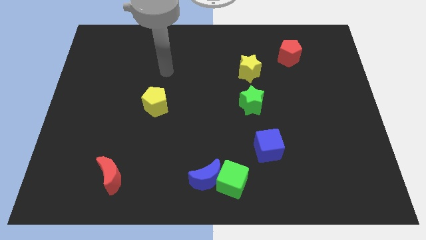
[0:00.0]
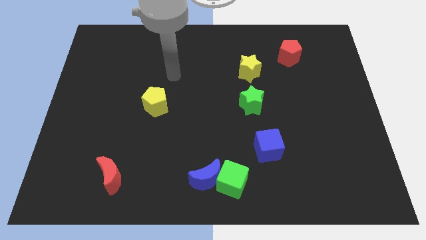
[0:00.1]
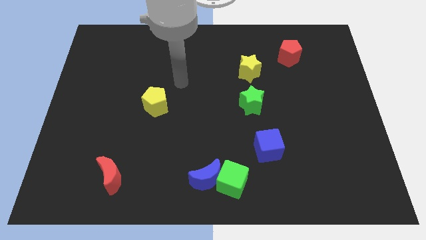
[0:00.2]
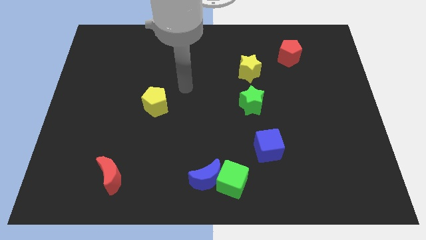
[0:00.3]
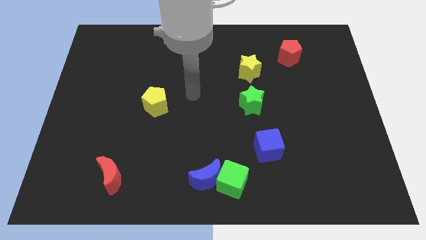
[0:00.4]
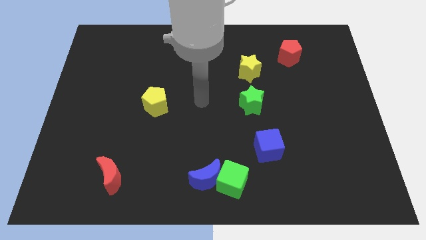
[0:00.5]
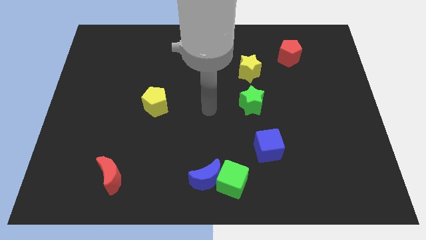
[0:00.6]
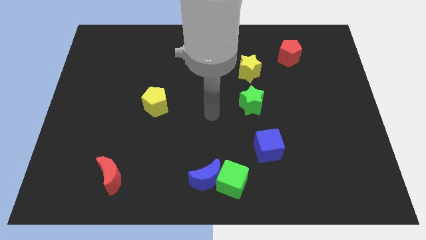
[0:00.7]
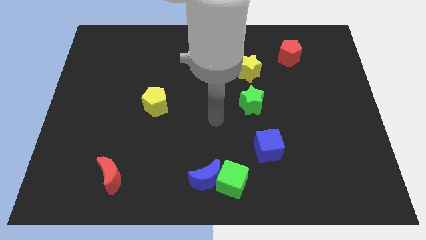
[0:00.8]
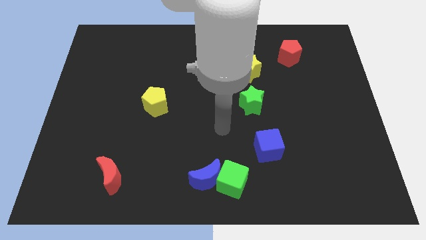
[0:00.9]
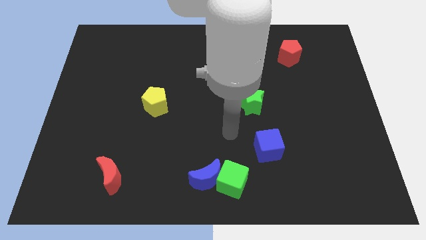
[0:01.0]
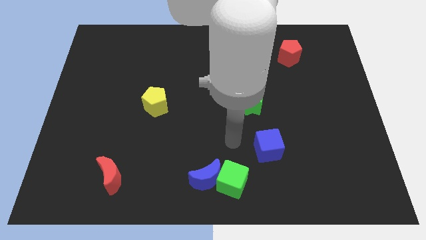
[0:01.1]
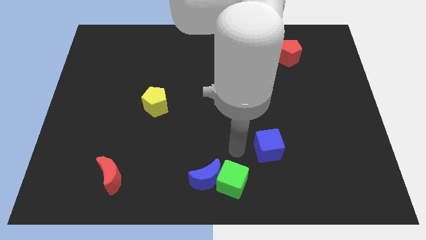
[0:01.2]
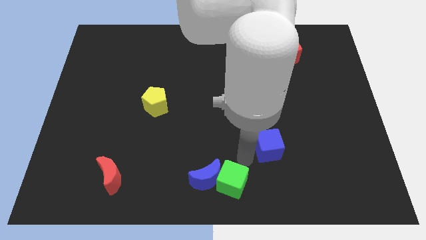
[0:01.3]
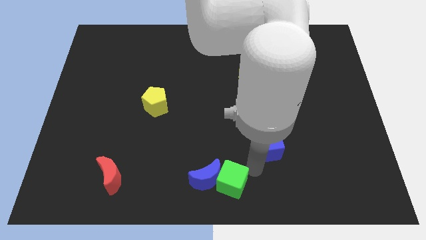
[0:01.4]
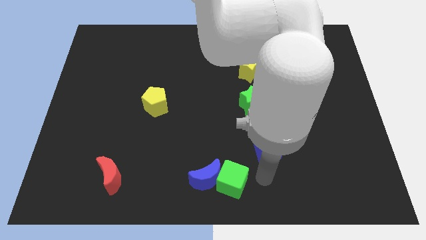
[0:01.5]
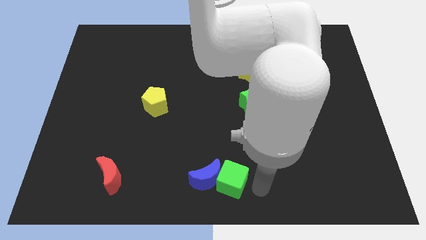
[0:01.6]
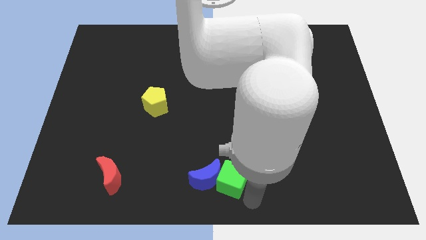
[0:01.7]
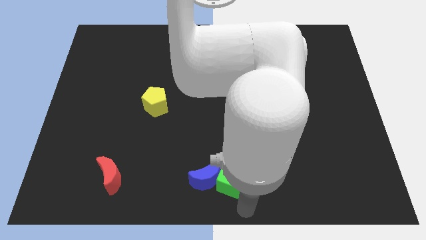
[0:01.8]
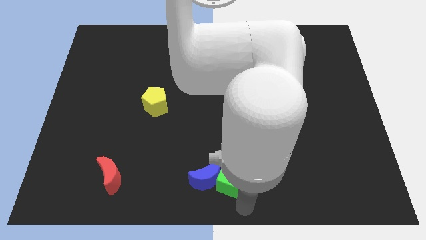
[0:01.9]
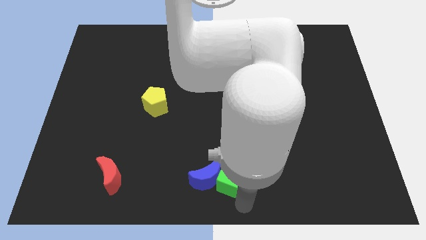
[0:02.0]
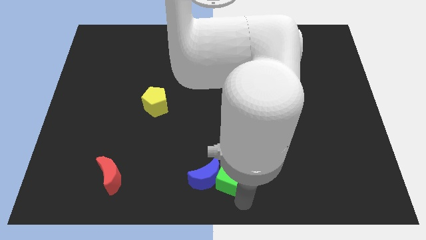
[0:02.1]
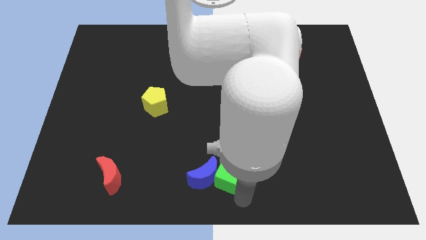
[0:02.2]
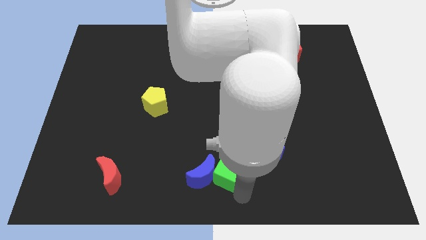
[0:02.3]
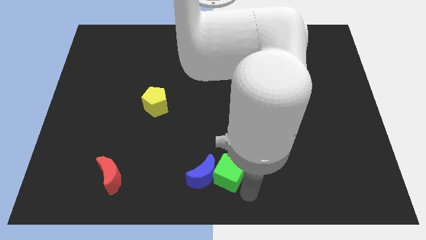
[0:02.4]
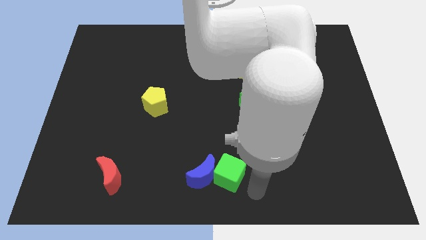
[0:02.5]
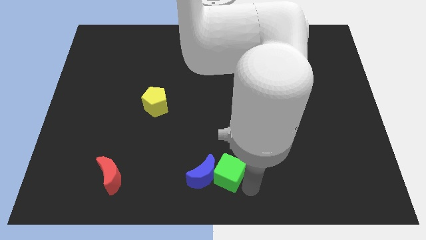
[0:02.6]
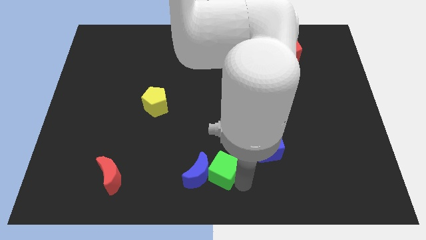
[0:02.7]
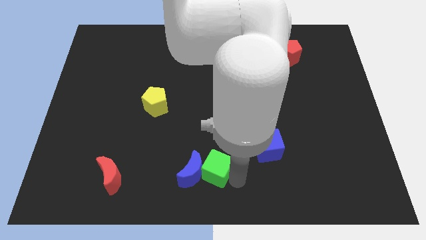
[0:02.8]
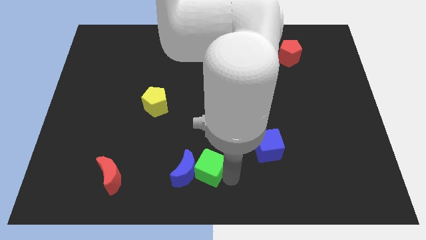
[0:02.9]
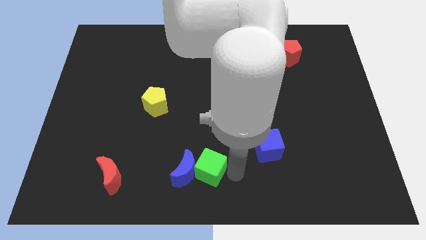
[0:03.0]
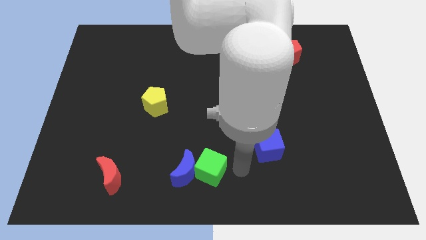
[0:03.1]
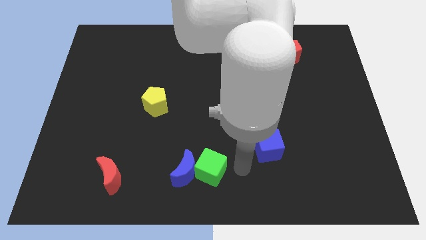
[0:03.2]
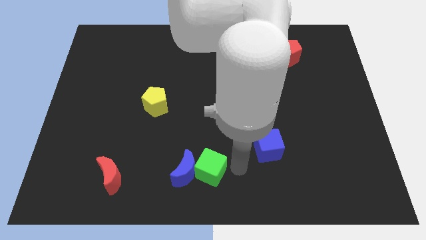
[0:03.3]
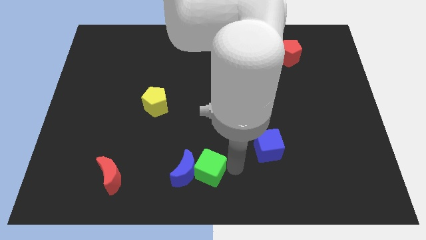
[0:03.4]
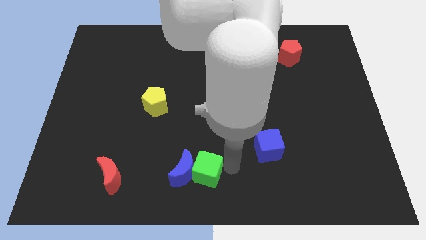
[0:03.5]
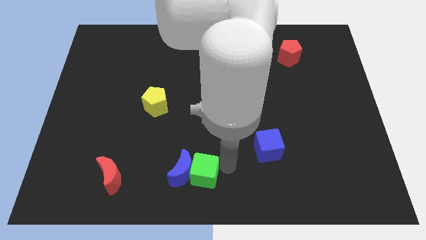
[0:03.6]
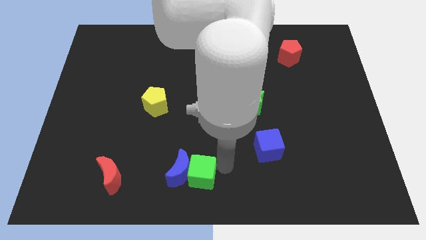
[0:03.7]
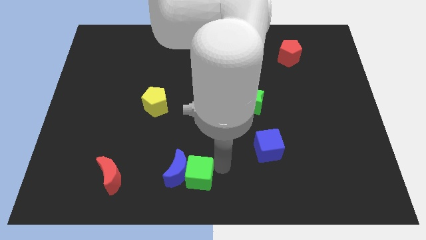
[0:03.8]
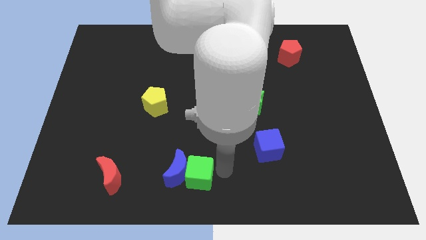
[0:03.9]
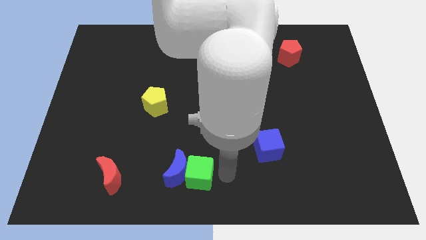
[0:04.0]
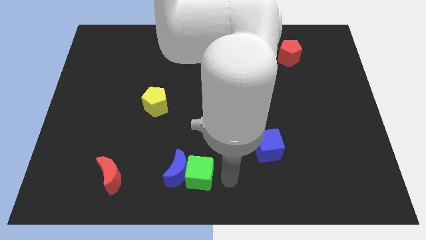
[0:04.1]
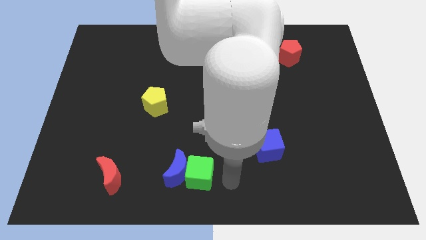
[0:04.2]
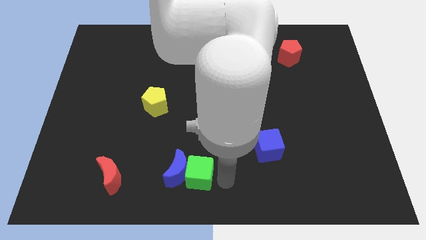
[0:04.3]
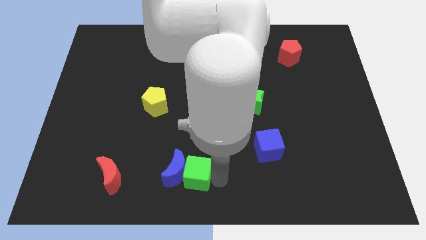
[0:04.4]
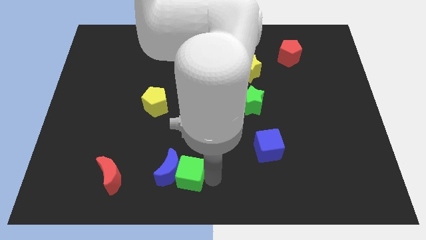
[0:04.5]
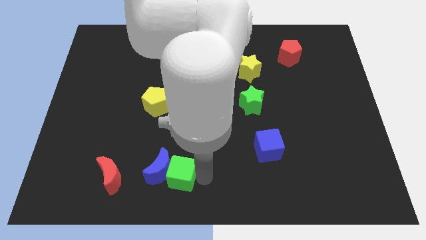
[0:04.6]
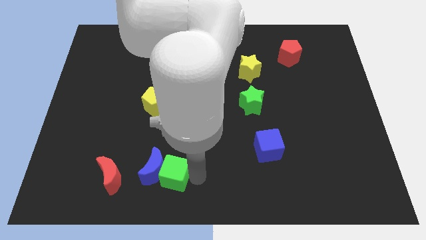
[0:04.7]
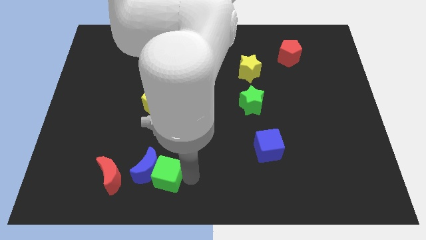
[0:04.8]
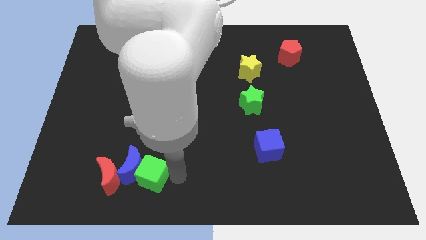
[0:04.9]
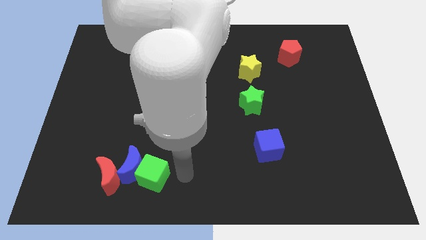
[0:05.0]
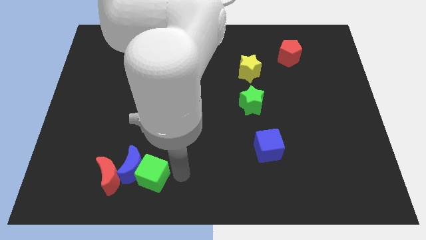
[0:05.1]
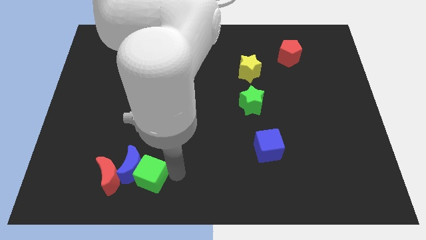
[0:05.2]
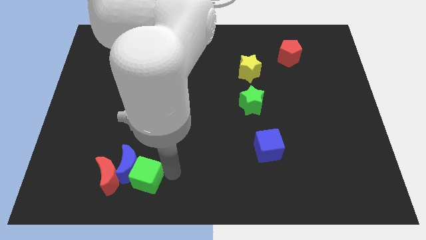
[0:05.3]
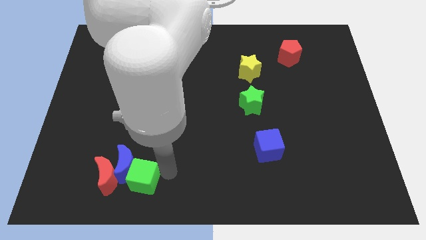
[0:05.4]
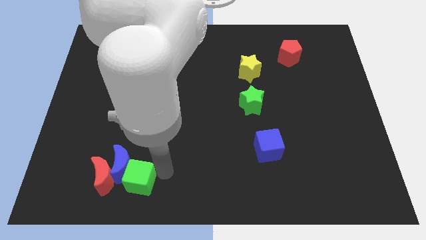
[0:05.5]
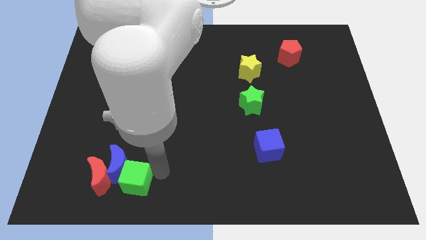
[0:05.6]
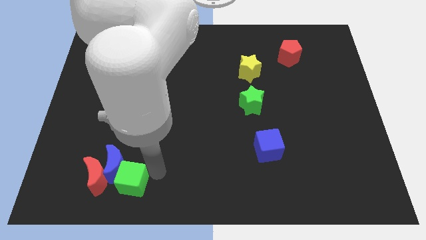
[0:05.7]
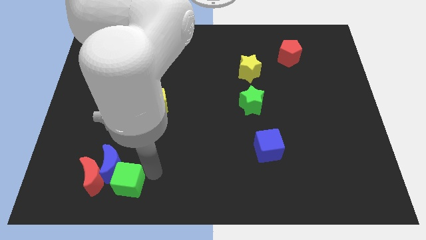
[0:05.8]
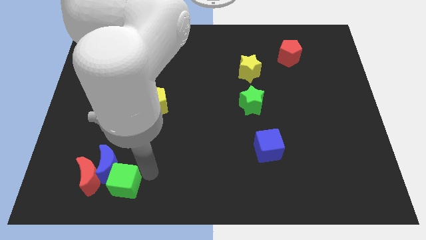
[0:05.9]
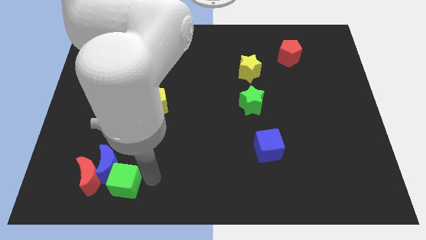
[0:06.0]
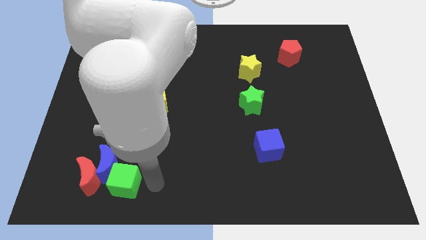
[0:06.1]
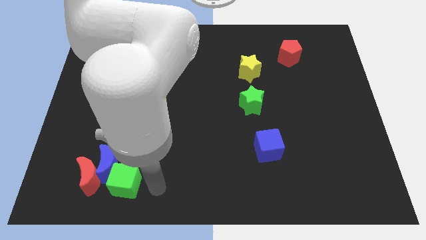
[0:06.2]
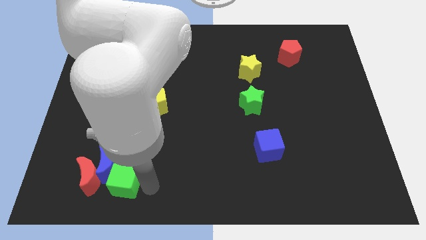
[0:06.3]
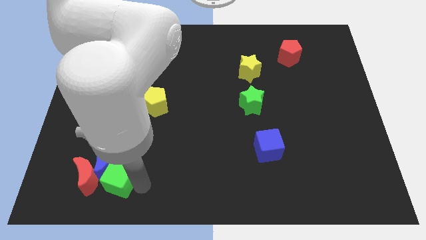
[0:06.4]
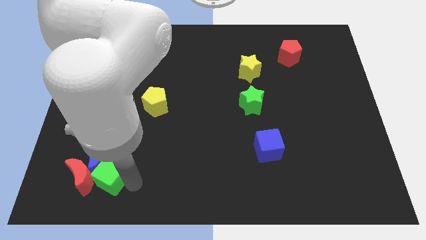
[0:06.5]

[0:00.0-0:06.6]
push the green cube towards the red moon

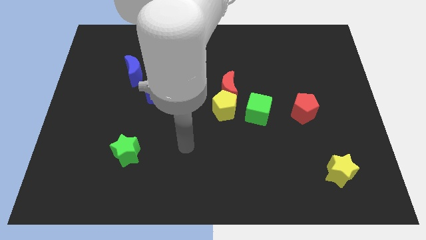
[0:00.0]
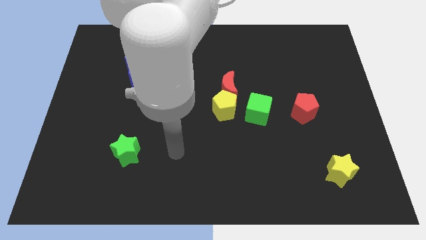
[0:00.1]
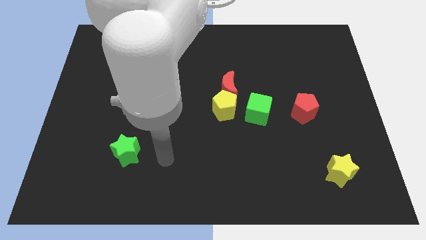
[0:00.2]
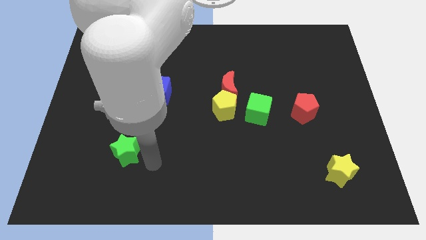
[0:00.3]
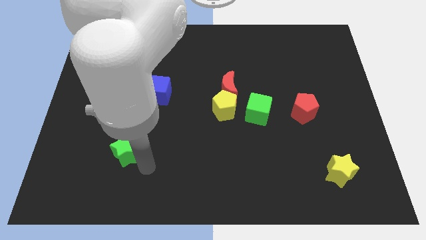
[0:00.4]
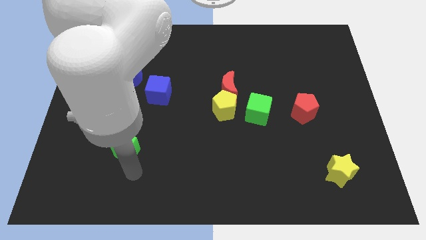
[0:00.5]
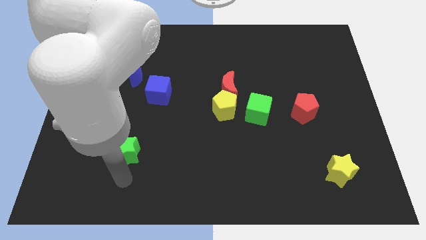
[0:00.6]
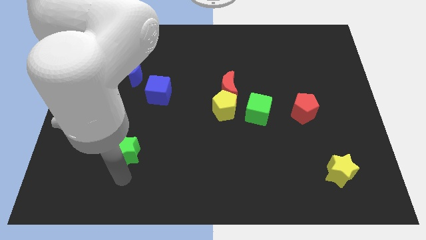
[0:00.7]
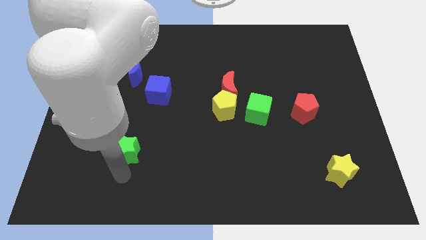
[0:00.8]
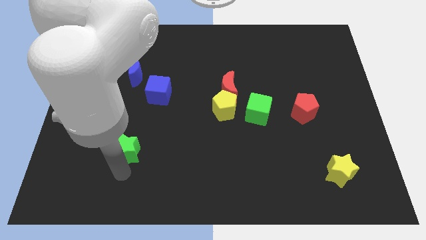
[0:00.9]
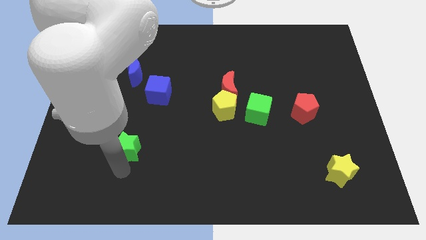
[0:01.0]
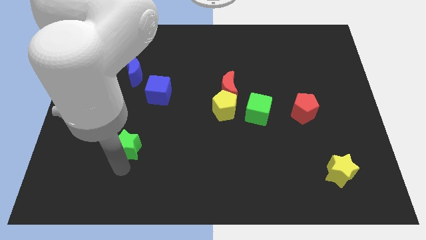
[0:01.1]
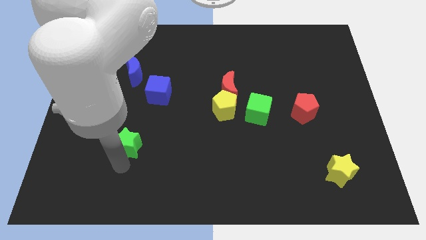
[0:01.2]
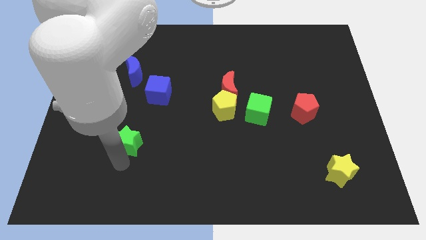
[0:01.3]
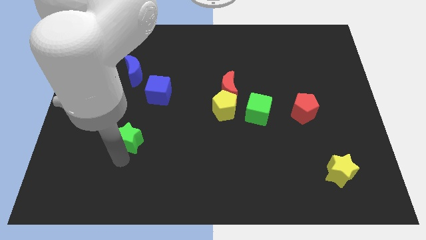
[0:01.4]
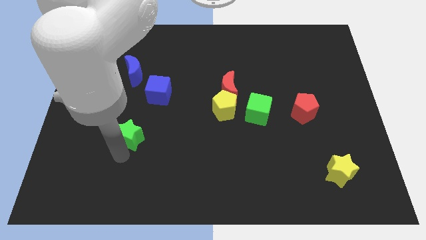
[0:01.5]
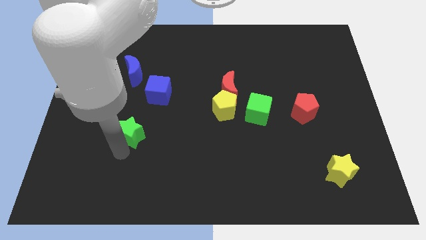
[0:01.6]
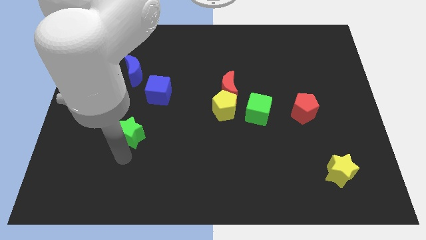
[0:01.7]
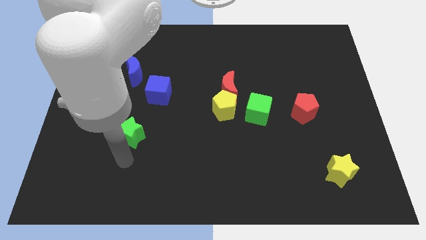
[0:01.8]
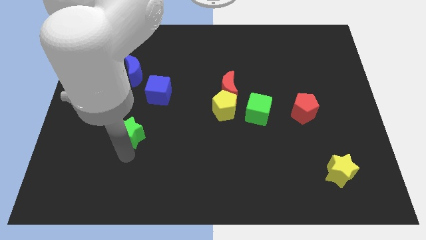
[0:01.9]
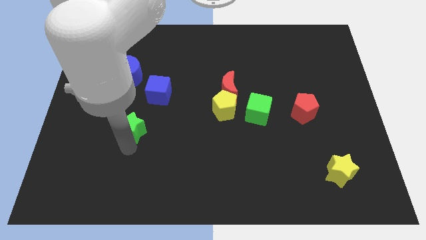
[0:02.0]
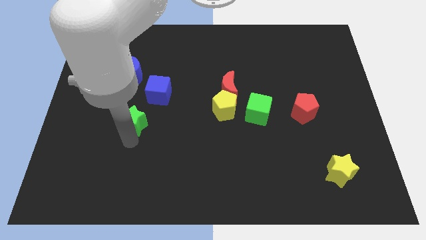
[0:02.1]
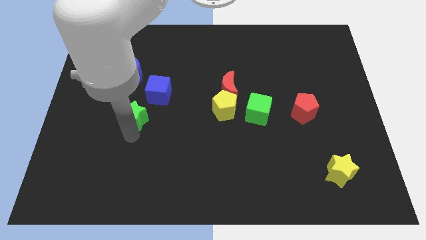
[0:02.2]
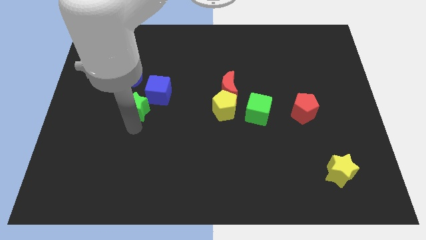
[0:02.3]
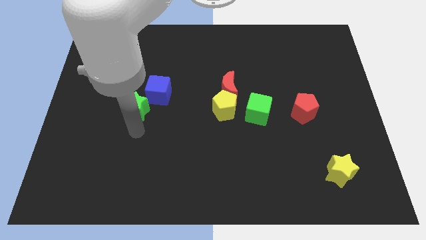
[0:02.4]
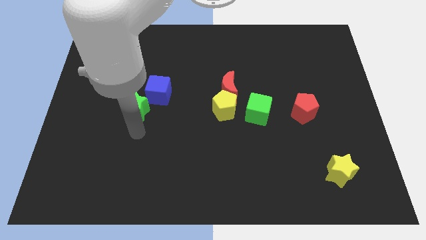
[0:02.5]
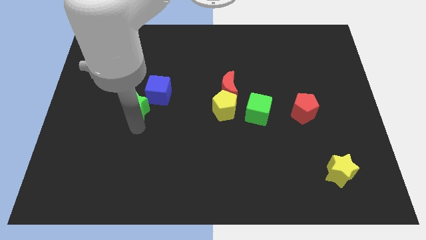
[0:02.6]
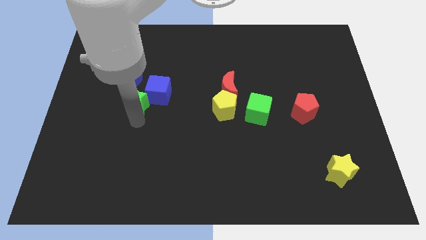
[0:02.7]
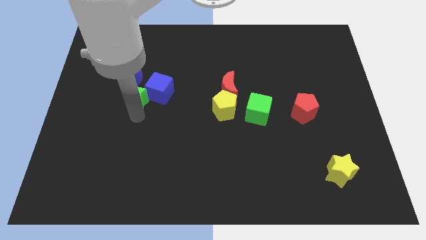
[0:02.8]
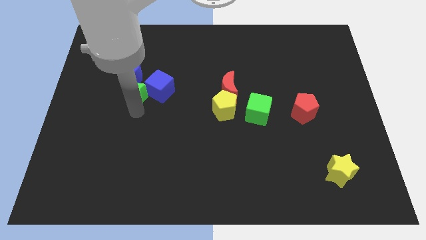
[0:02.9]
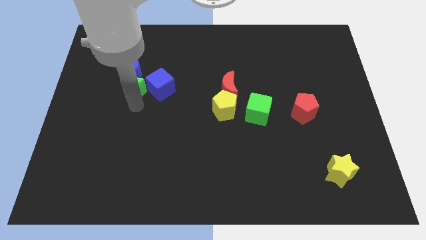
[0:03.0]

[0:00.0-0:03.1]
move the green star close to the blue moon
